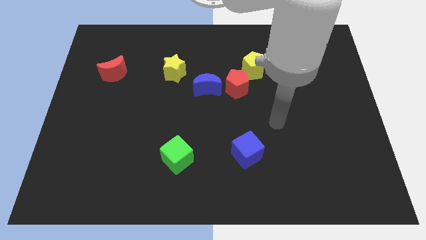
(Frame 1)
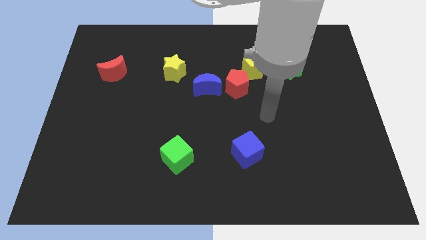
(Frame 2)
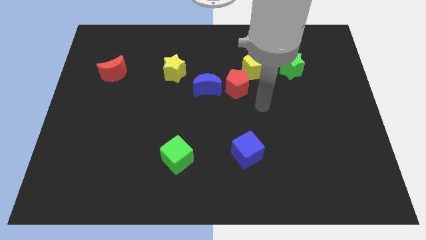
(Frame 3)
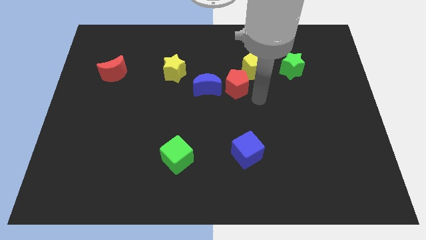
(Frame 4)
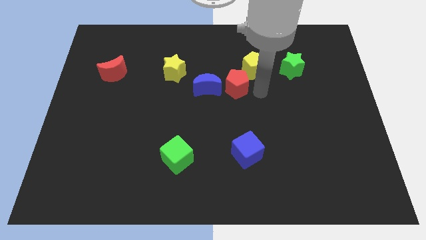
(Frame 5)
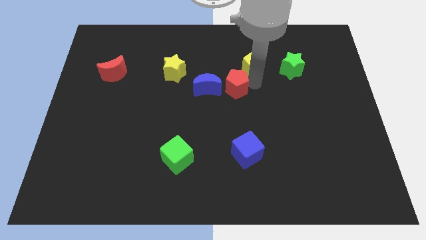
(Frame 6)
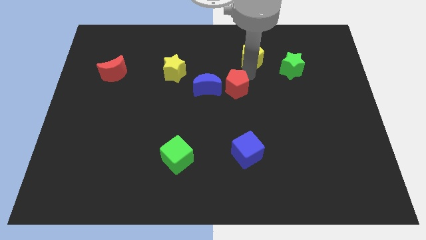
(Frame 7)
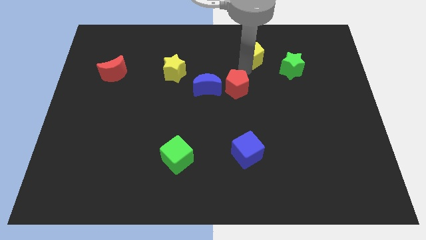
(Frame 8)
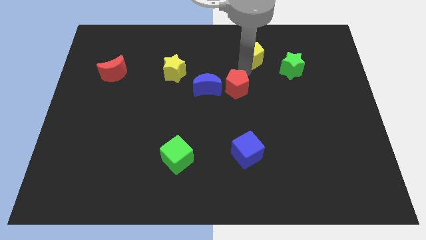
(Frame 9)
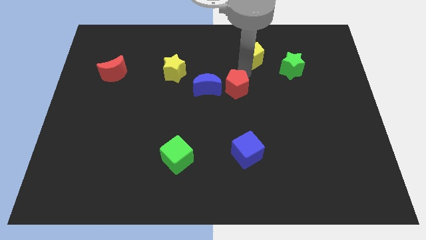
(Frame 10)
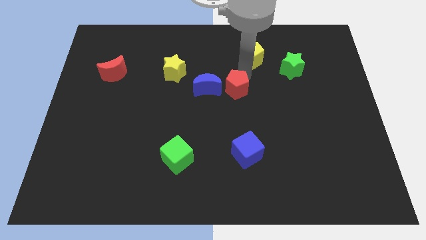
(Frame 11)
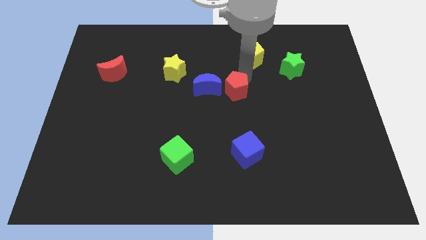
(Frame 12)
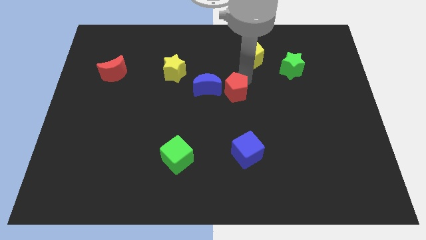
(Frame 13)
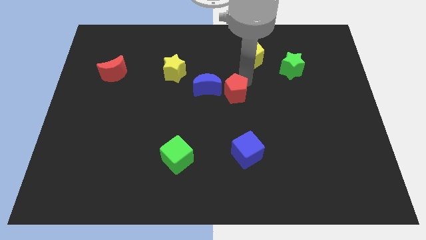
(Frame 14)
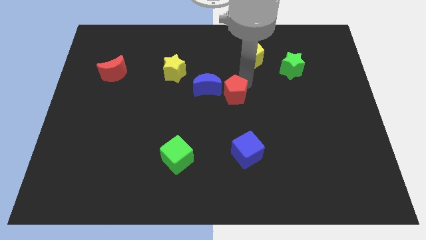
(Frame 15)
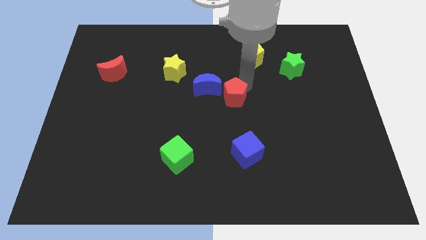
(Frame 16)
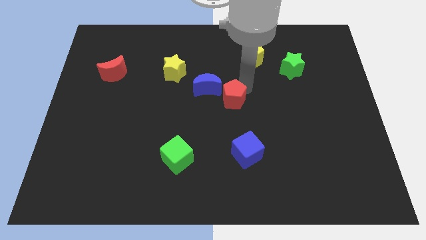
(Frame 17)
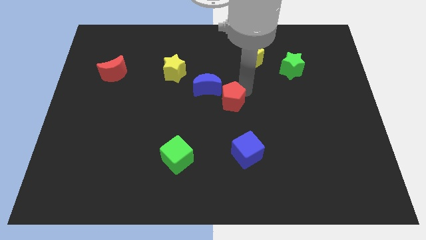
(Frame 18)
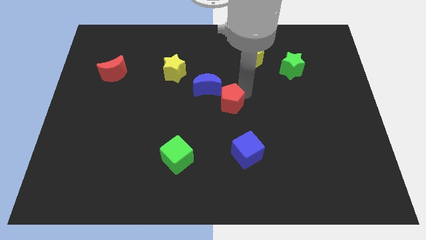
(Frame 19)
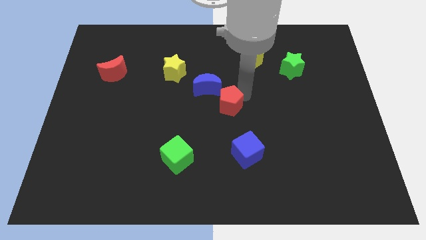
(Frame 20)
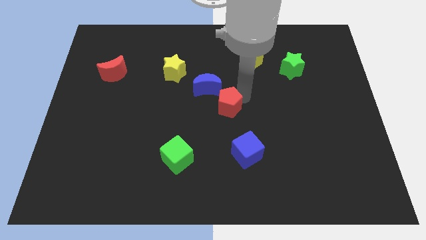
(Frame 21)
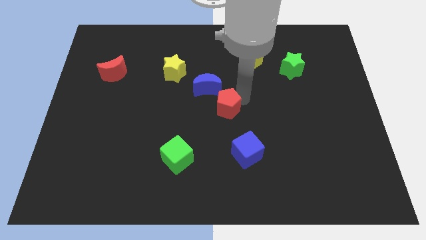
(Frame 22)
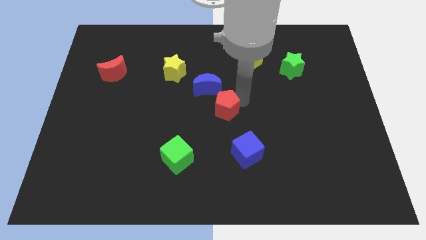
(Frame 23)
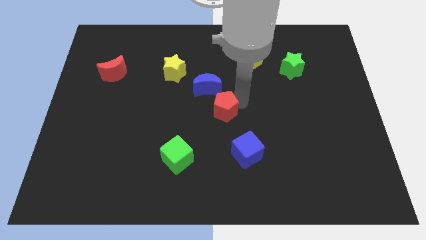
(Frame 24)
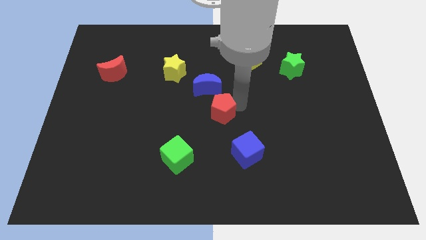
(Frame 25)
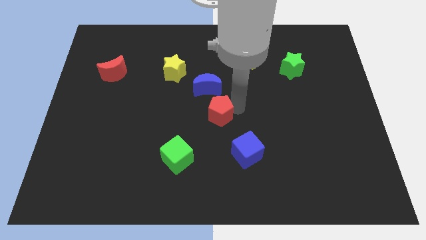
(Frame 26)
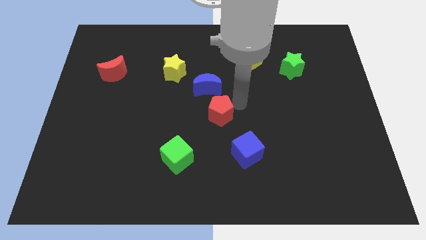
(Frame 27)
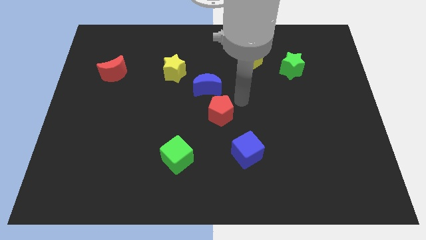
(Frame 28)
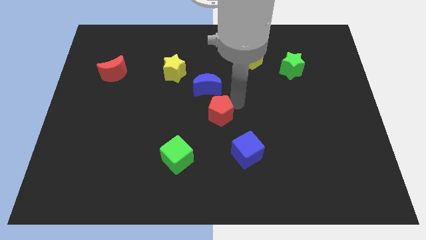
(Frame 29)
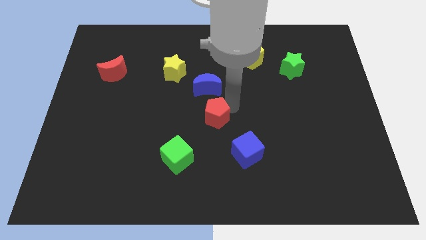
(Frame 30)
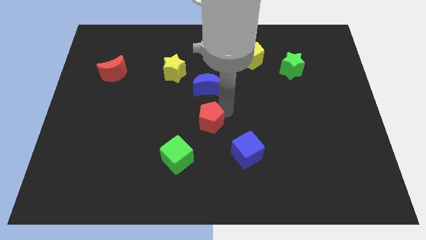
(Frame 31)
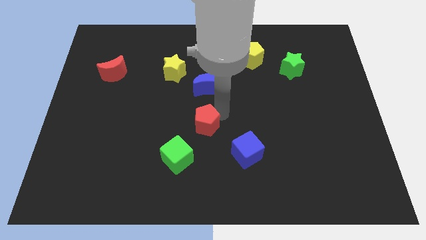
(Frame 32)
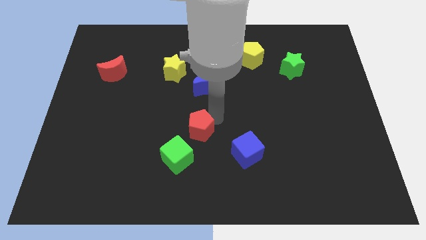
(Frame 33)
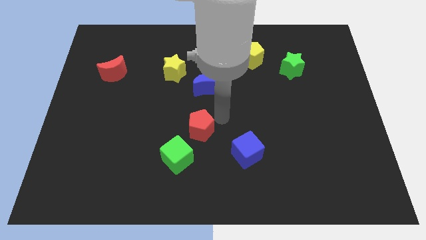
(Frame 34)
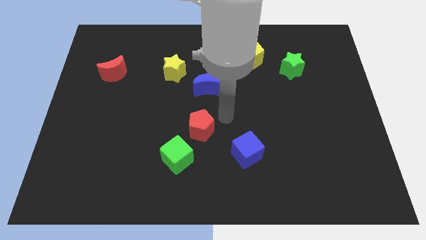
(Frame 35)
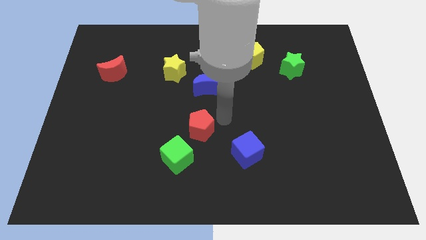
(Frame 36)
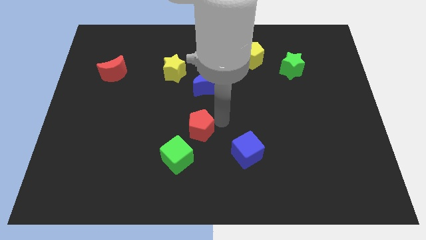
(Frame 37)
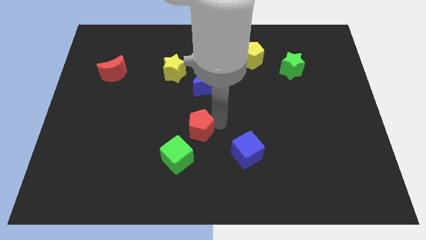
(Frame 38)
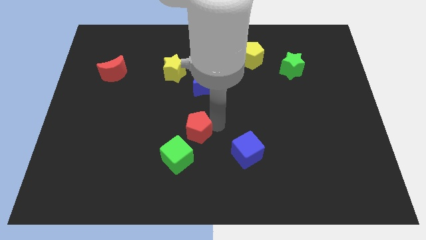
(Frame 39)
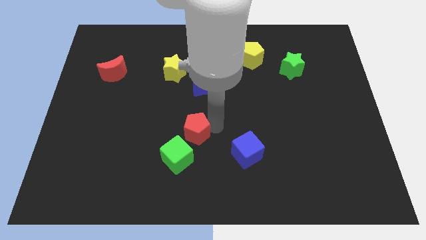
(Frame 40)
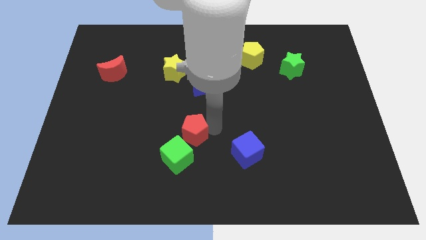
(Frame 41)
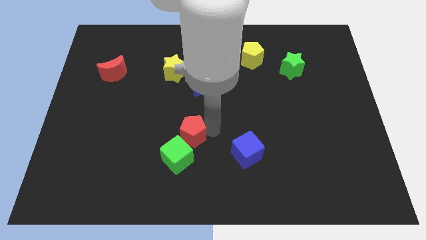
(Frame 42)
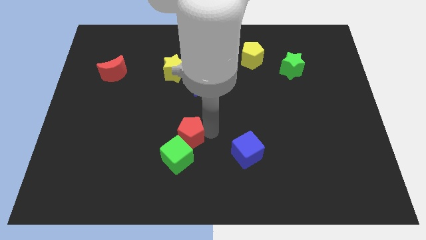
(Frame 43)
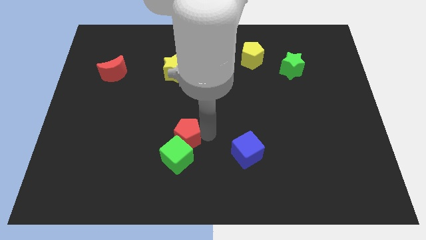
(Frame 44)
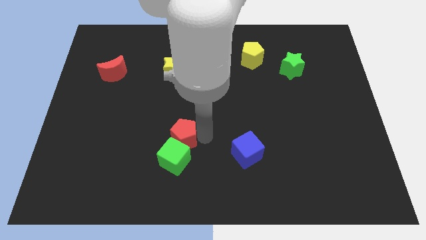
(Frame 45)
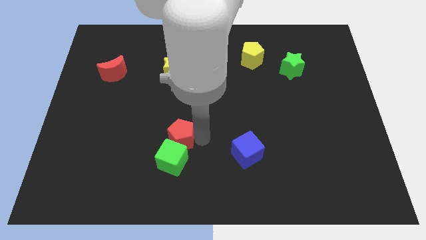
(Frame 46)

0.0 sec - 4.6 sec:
move the red pentagon diagonally down and left

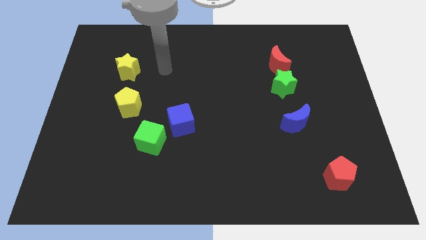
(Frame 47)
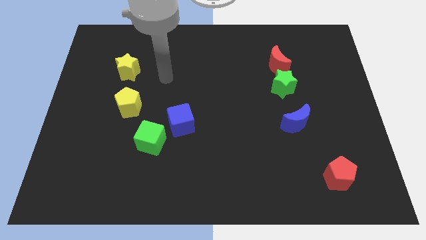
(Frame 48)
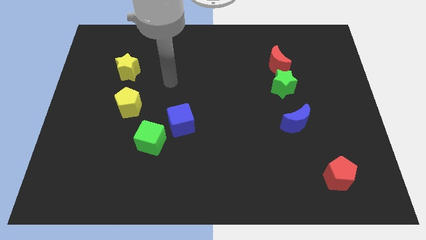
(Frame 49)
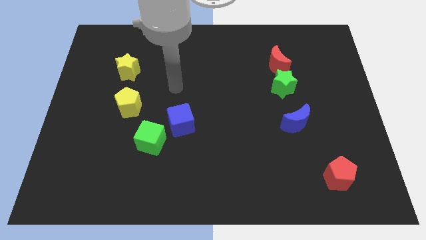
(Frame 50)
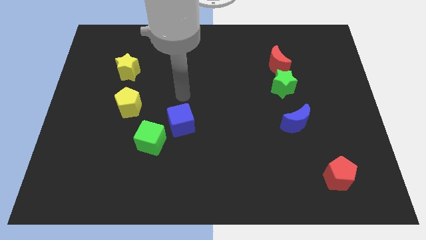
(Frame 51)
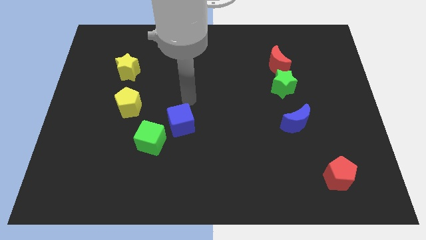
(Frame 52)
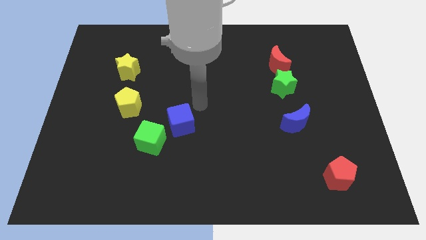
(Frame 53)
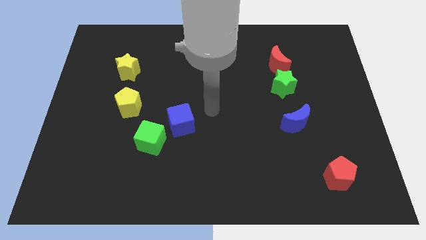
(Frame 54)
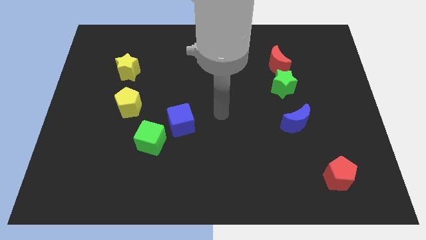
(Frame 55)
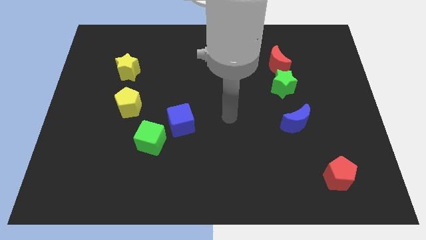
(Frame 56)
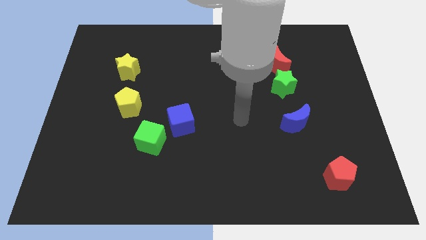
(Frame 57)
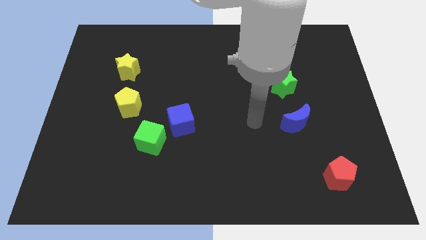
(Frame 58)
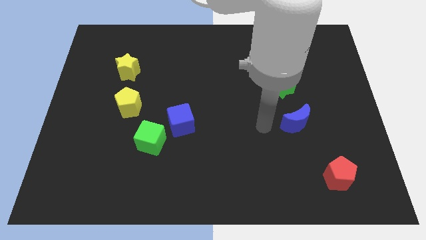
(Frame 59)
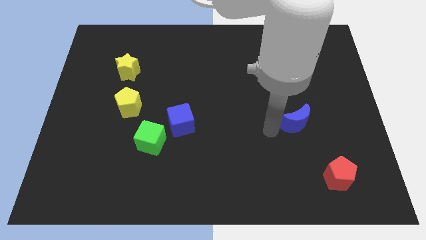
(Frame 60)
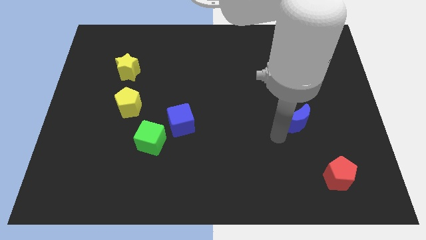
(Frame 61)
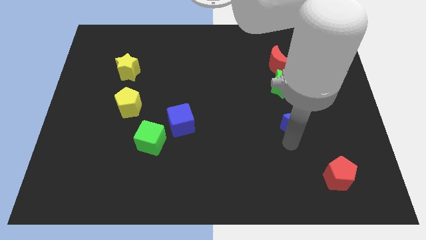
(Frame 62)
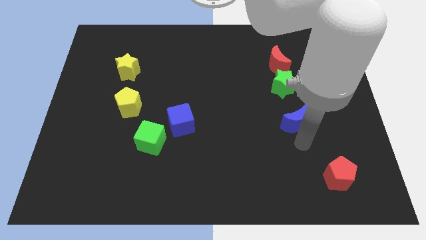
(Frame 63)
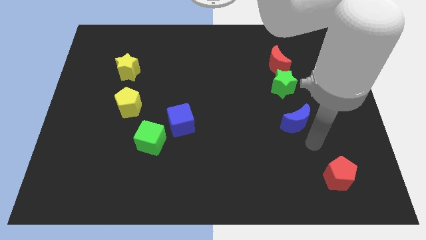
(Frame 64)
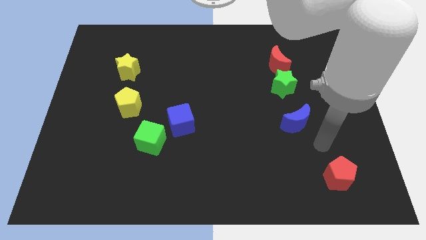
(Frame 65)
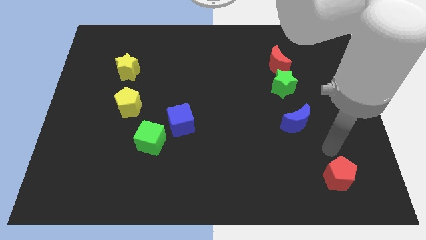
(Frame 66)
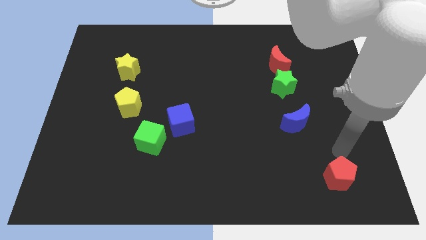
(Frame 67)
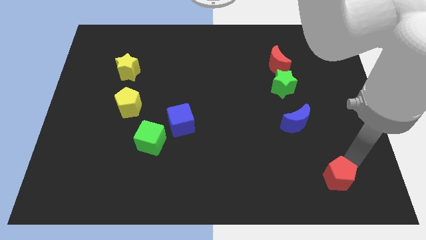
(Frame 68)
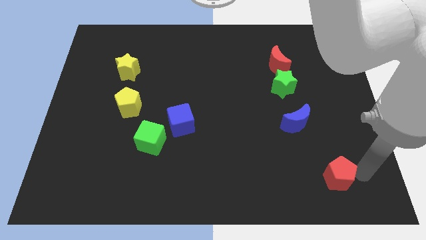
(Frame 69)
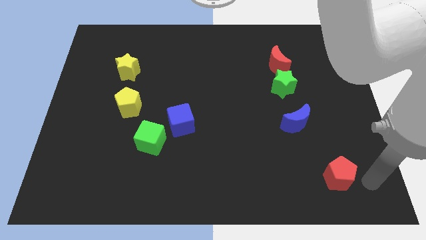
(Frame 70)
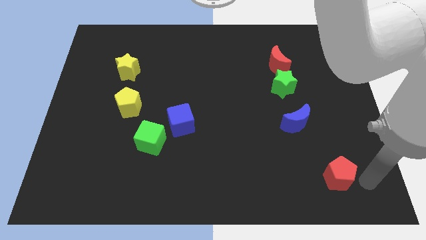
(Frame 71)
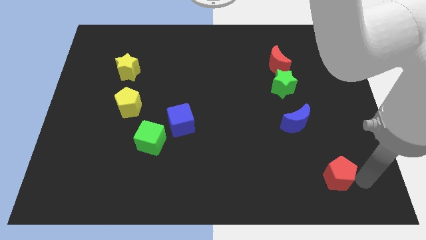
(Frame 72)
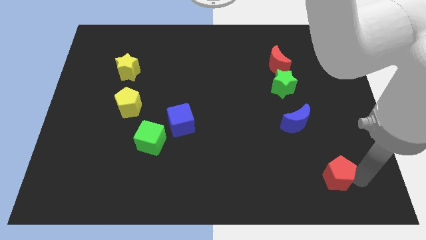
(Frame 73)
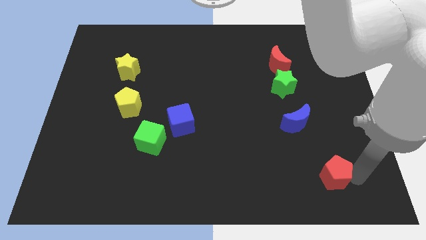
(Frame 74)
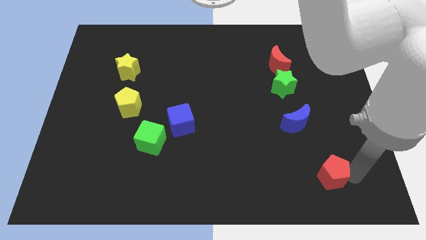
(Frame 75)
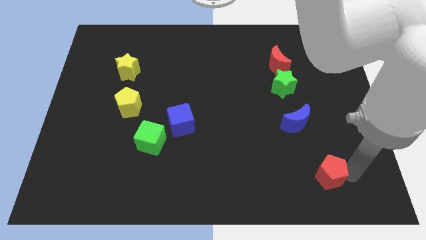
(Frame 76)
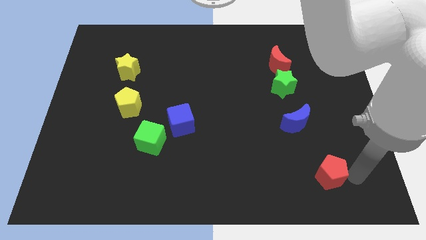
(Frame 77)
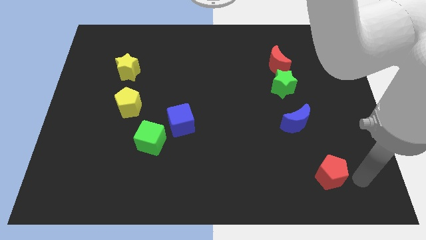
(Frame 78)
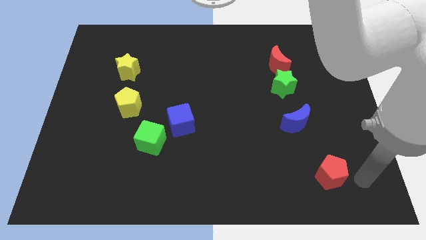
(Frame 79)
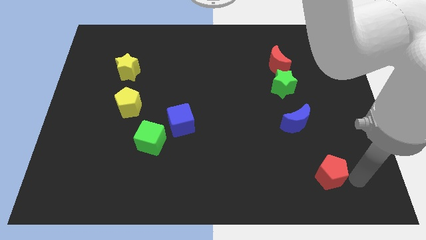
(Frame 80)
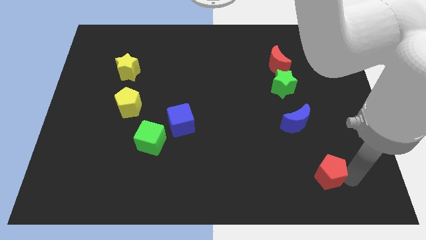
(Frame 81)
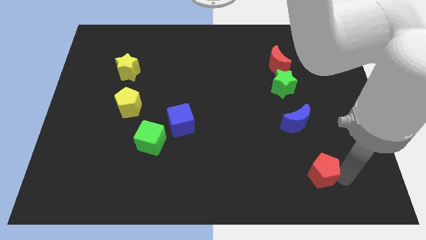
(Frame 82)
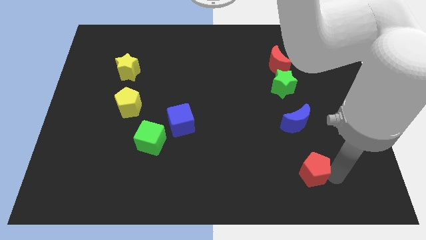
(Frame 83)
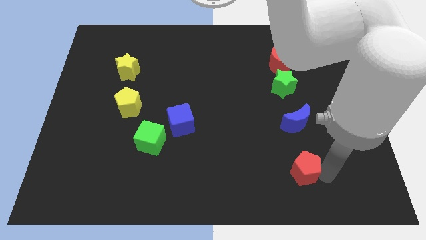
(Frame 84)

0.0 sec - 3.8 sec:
slide the red pentagon to the left a little
